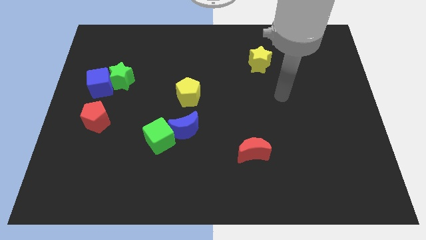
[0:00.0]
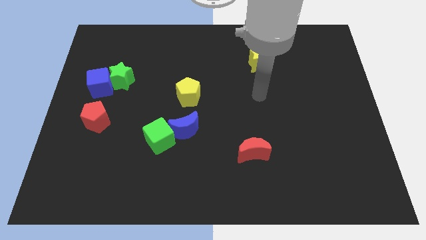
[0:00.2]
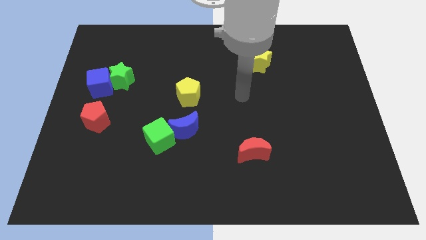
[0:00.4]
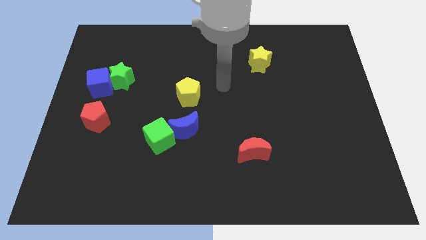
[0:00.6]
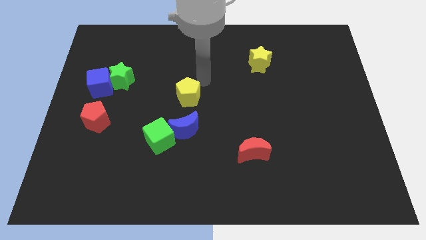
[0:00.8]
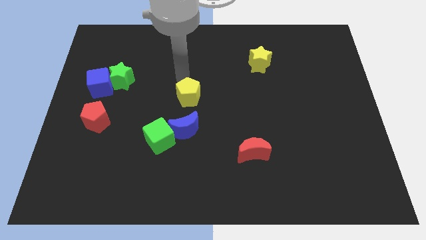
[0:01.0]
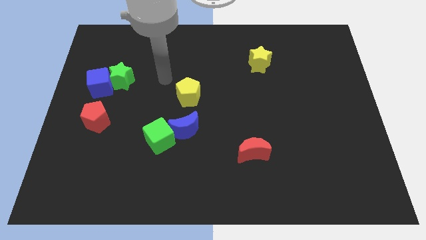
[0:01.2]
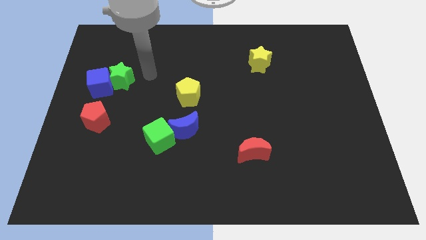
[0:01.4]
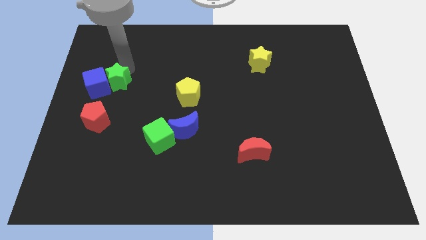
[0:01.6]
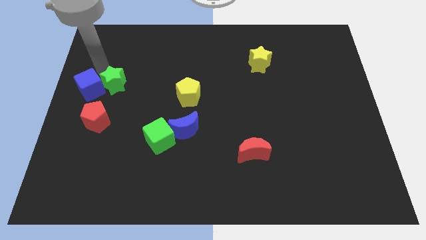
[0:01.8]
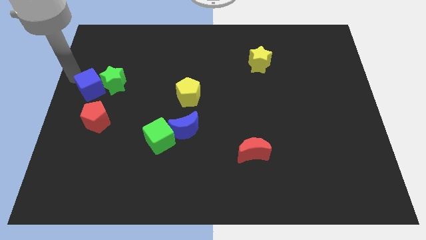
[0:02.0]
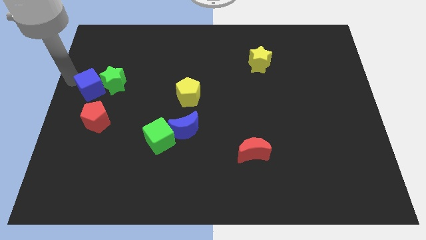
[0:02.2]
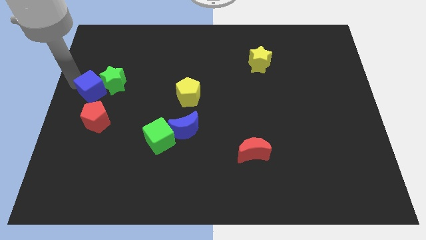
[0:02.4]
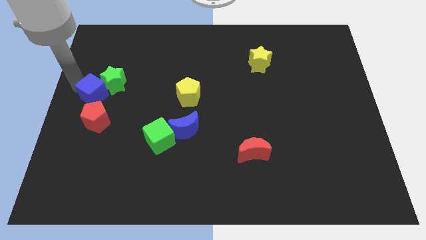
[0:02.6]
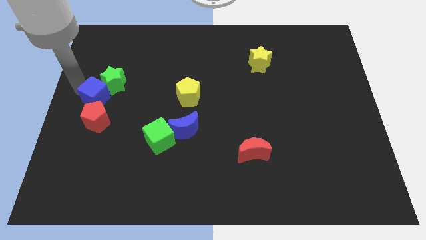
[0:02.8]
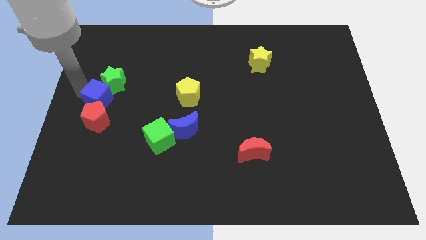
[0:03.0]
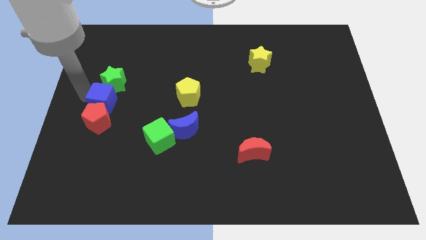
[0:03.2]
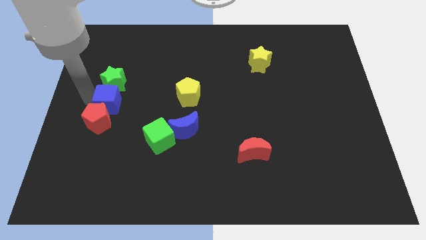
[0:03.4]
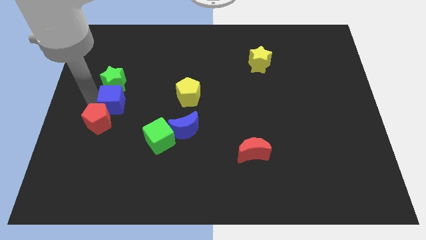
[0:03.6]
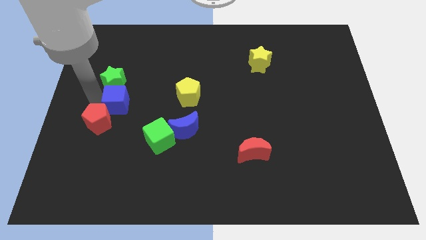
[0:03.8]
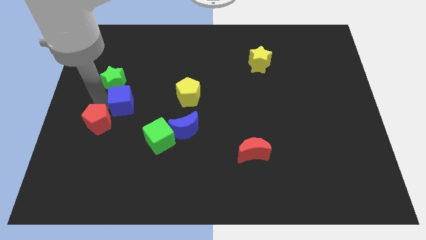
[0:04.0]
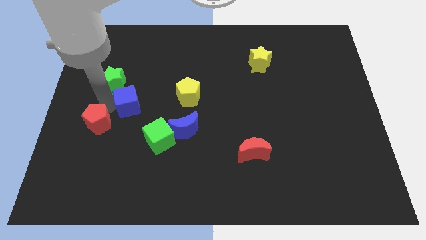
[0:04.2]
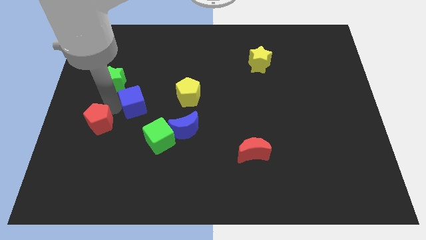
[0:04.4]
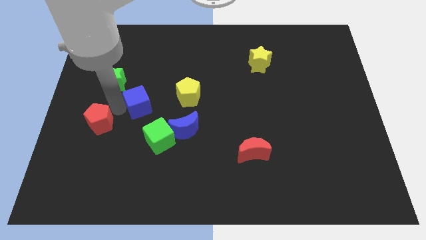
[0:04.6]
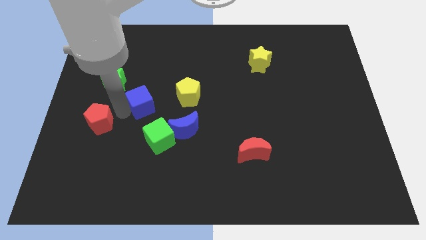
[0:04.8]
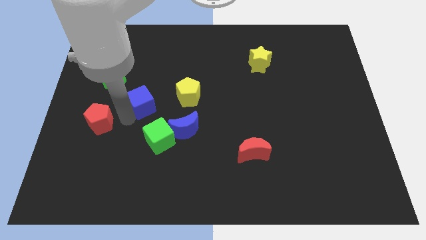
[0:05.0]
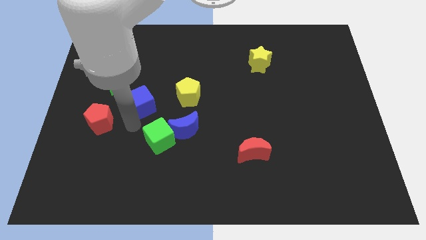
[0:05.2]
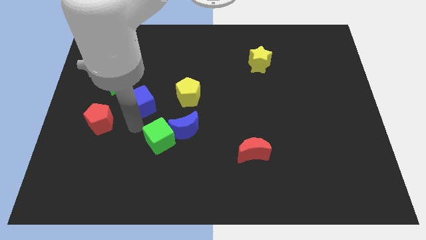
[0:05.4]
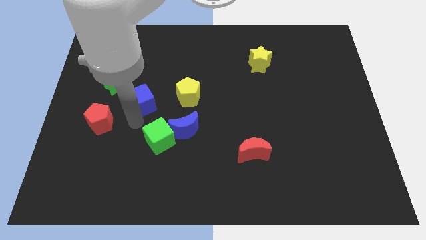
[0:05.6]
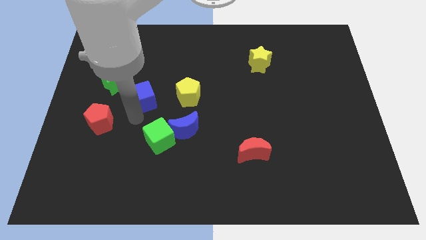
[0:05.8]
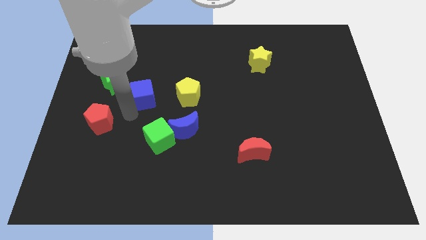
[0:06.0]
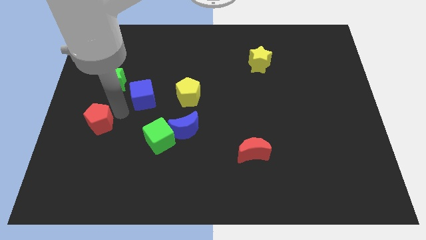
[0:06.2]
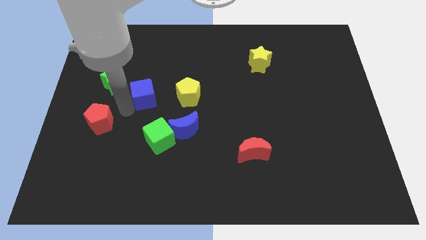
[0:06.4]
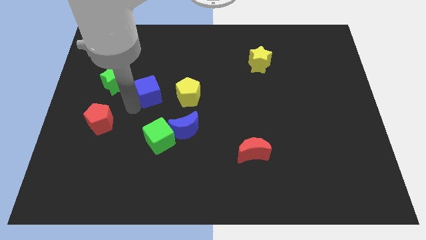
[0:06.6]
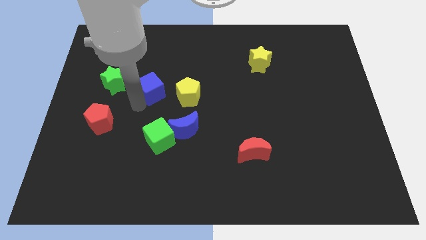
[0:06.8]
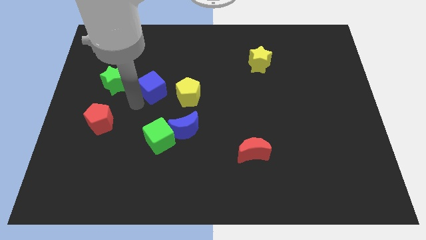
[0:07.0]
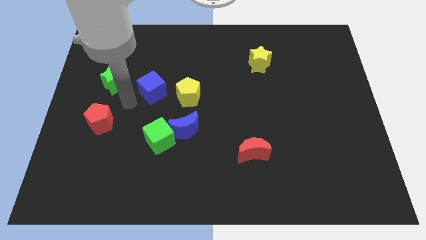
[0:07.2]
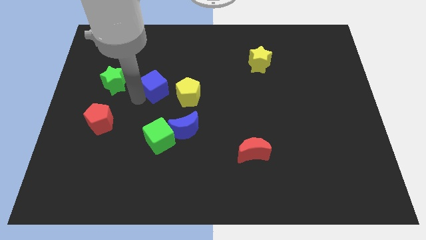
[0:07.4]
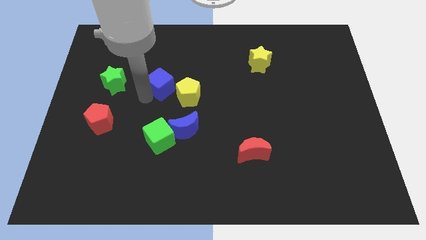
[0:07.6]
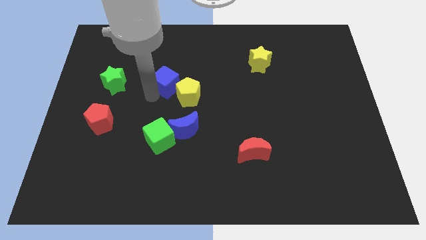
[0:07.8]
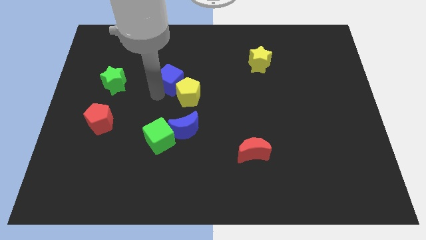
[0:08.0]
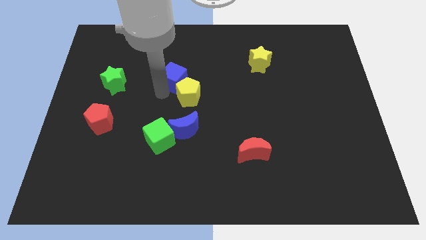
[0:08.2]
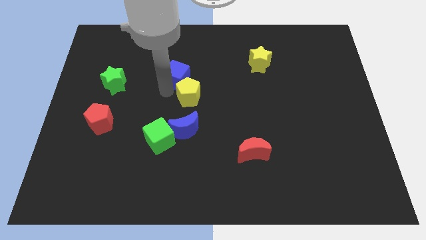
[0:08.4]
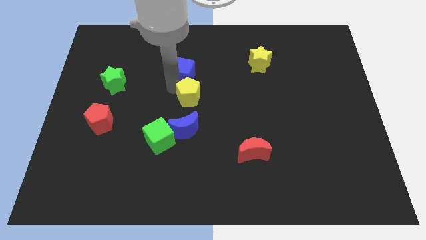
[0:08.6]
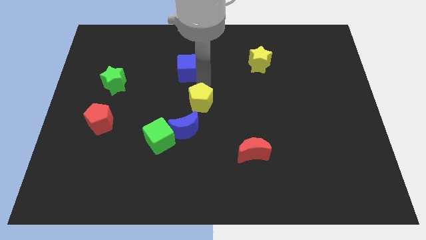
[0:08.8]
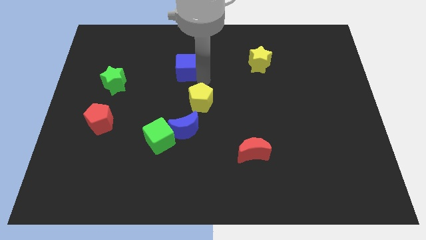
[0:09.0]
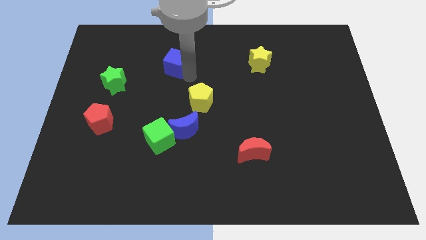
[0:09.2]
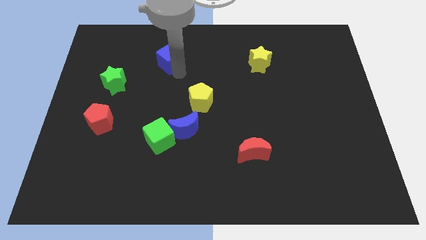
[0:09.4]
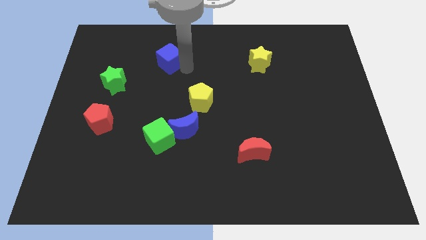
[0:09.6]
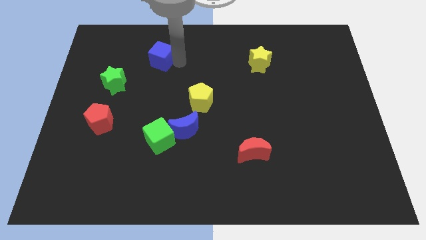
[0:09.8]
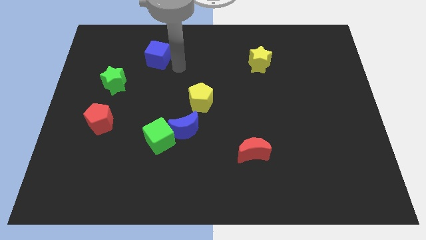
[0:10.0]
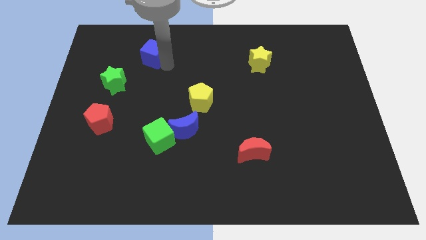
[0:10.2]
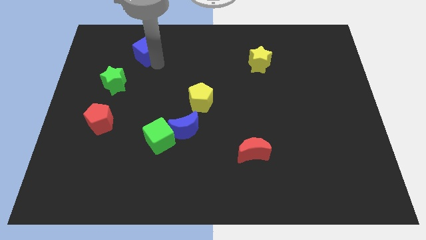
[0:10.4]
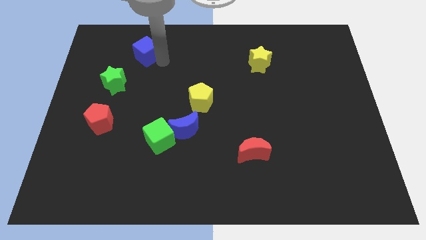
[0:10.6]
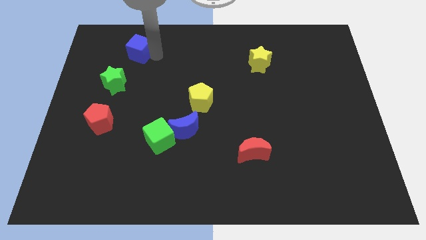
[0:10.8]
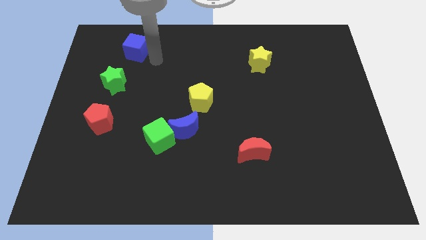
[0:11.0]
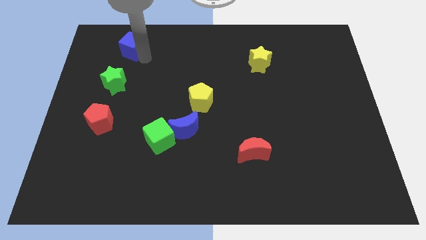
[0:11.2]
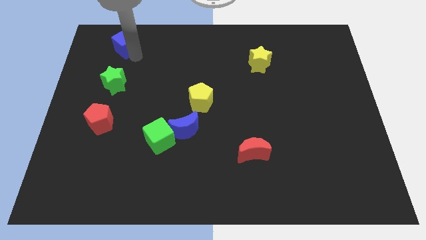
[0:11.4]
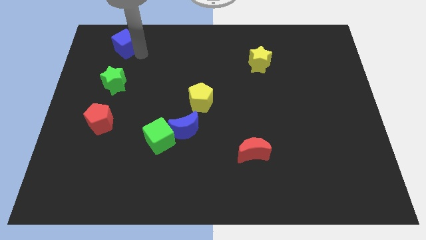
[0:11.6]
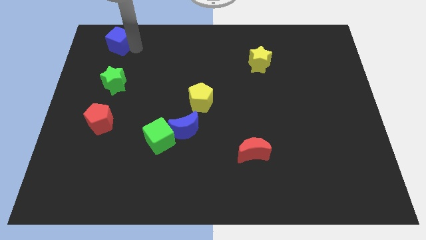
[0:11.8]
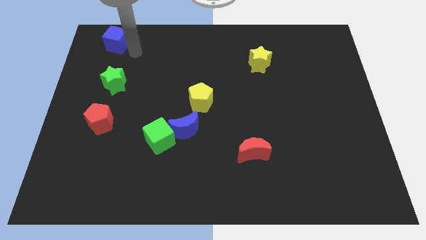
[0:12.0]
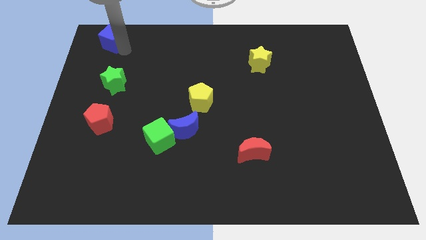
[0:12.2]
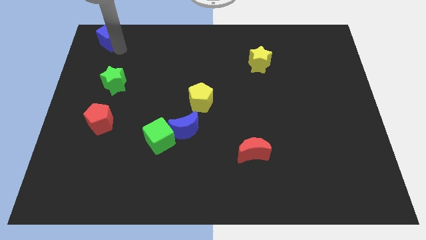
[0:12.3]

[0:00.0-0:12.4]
slide the blue cube to the top left of the board
